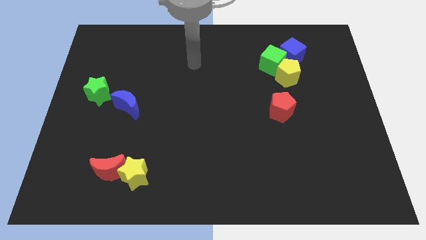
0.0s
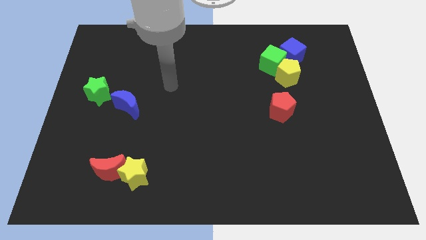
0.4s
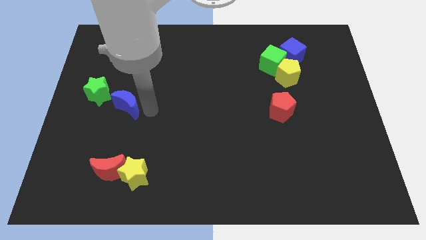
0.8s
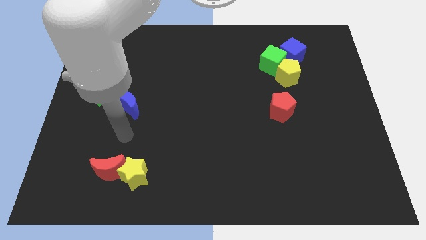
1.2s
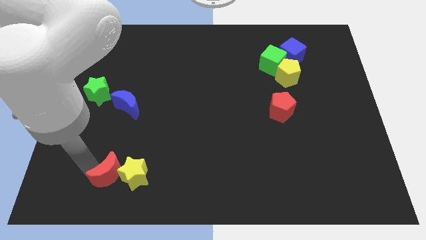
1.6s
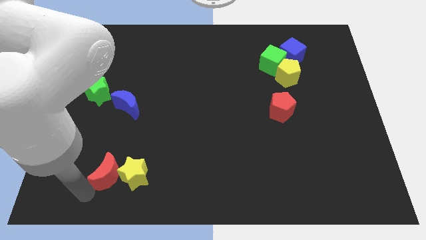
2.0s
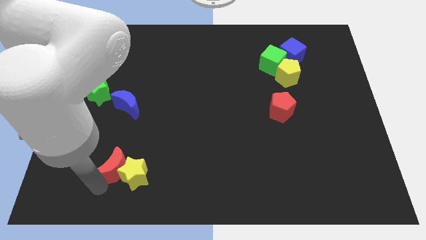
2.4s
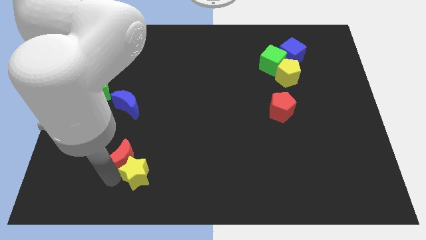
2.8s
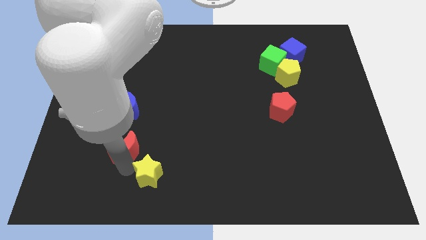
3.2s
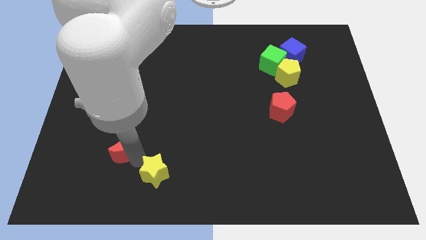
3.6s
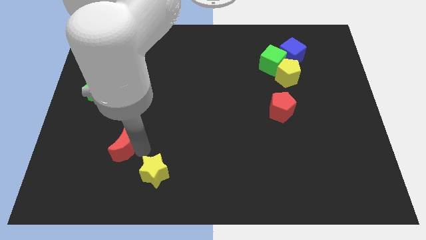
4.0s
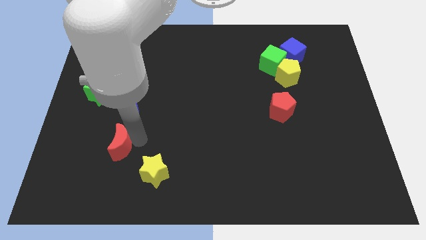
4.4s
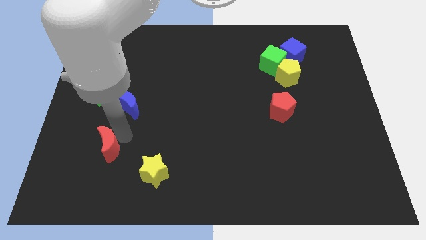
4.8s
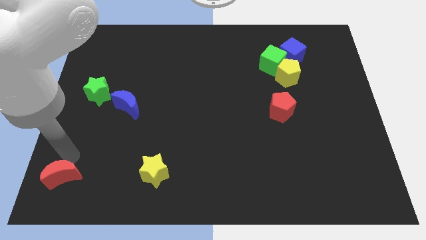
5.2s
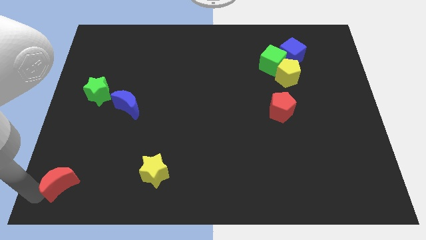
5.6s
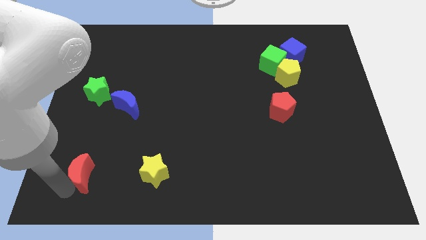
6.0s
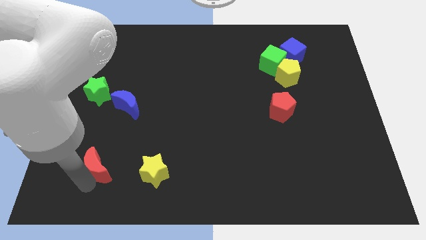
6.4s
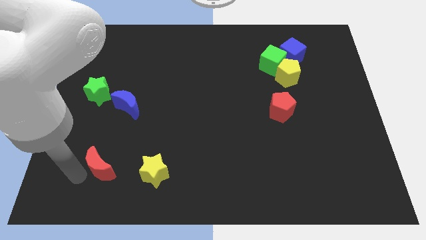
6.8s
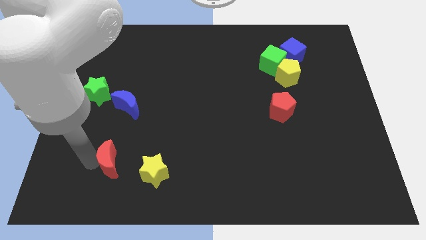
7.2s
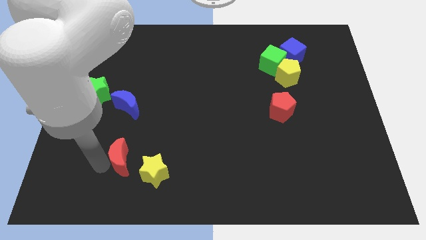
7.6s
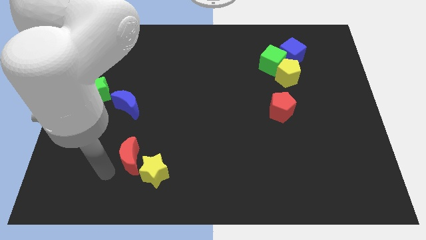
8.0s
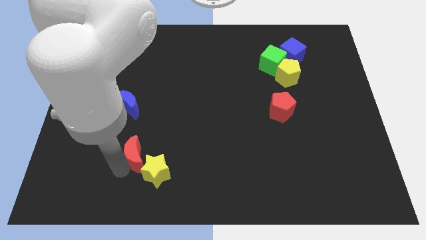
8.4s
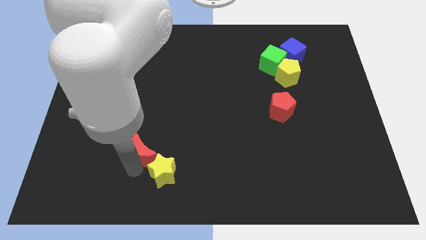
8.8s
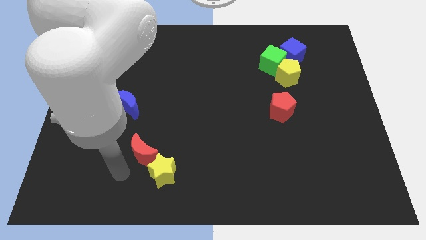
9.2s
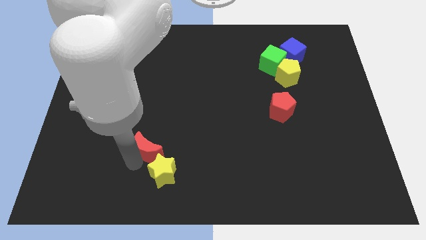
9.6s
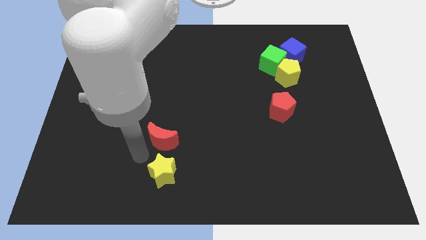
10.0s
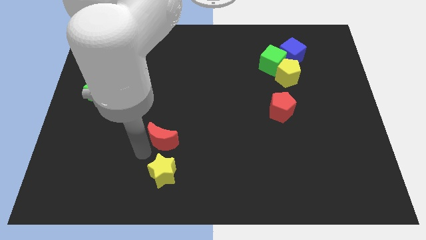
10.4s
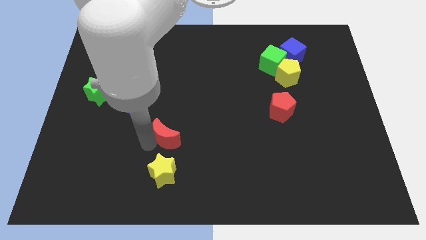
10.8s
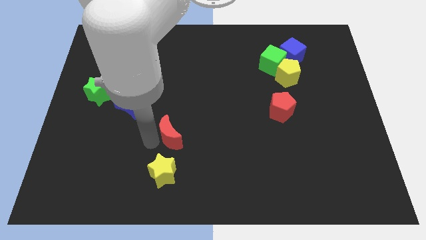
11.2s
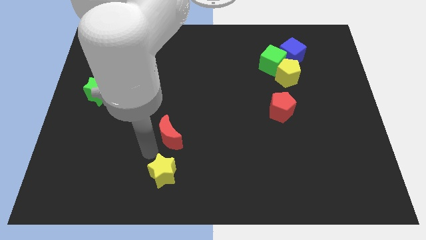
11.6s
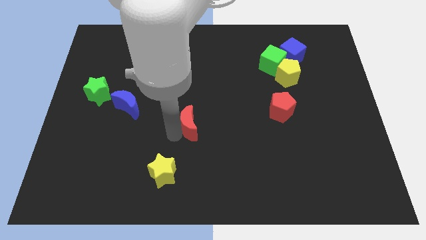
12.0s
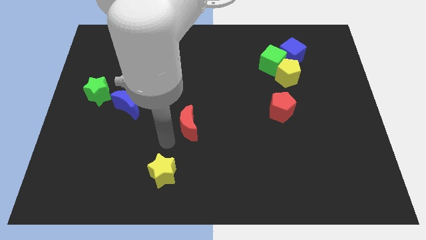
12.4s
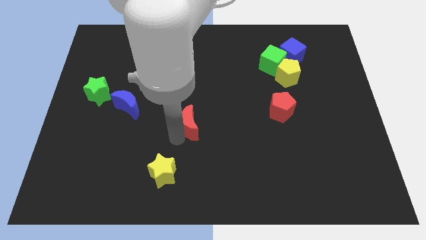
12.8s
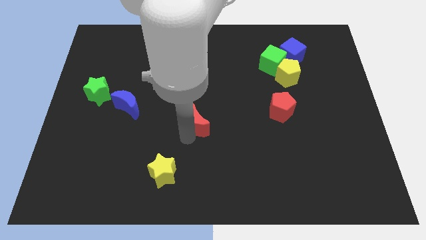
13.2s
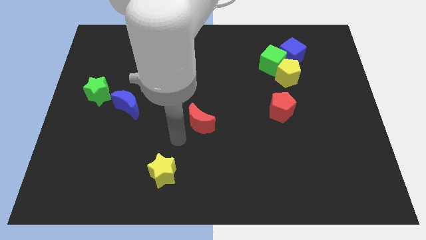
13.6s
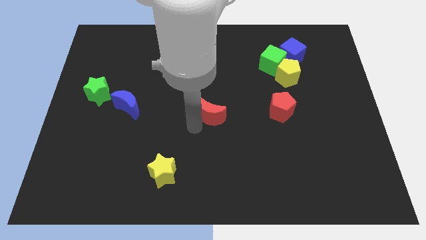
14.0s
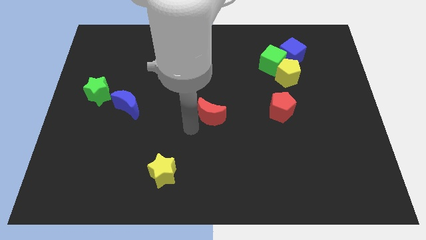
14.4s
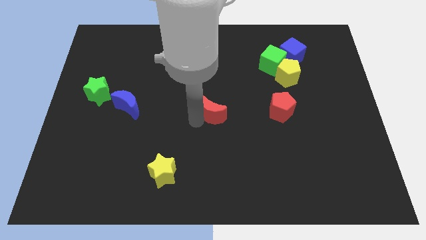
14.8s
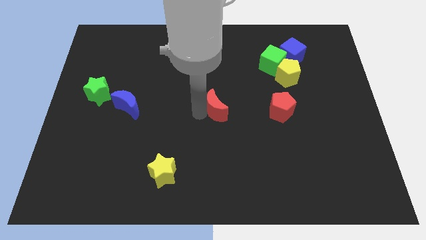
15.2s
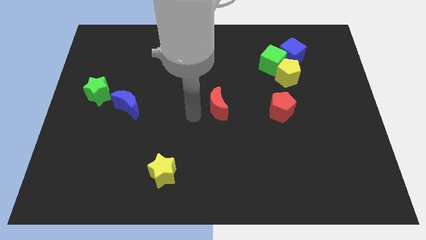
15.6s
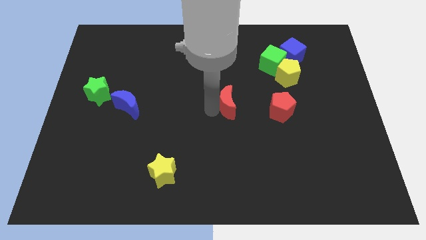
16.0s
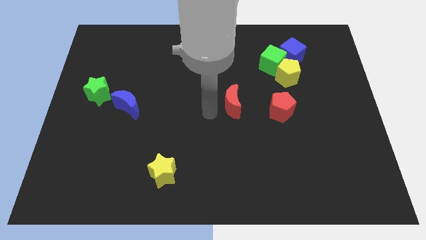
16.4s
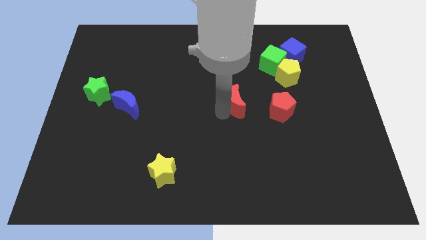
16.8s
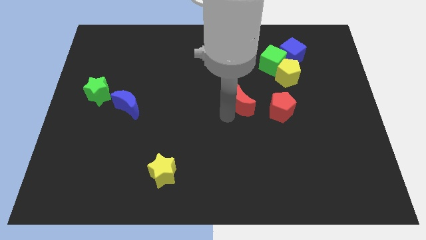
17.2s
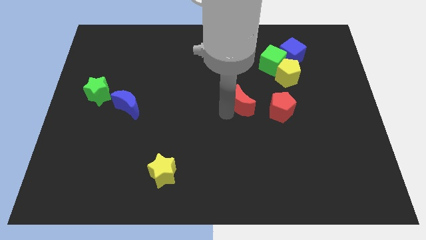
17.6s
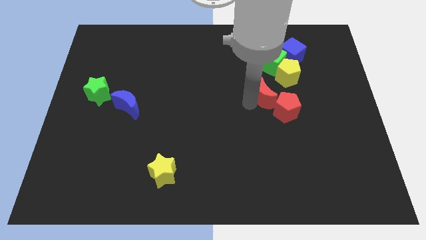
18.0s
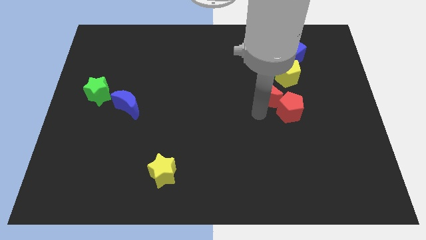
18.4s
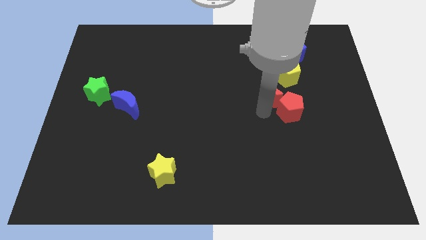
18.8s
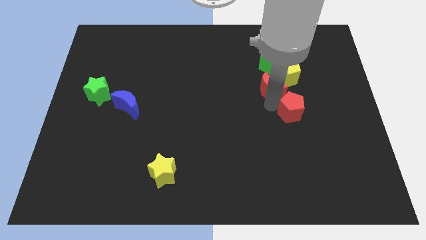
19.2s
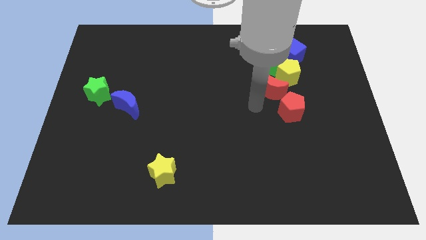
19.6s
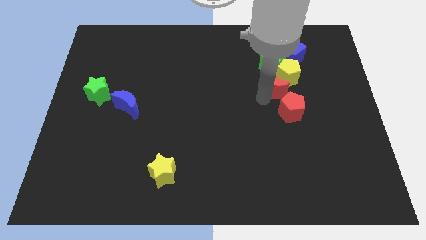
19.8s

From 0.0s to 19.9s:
slide the red moon next to the yellow pentagon

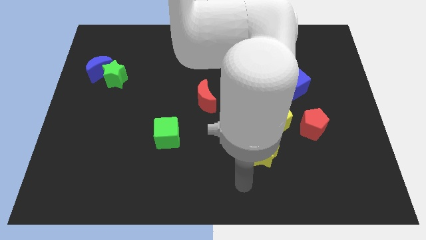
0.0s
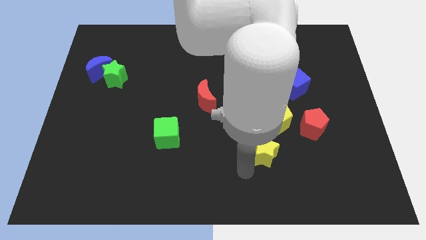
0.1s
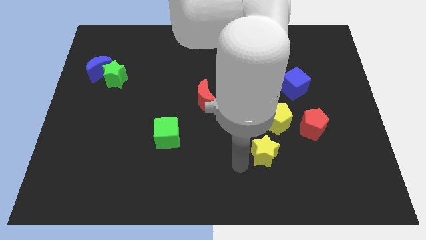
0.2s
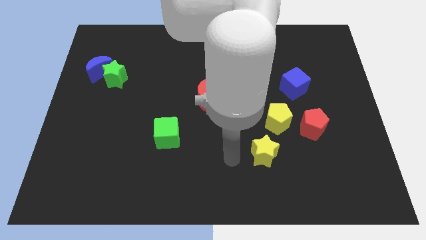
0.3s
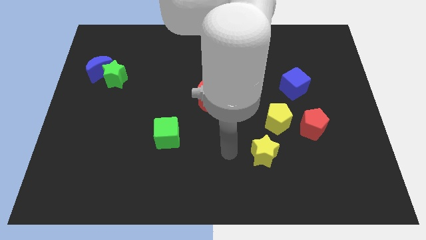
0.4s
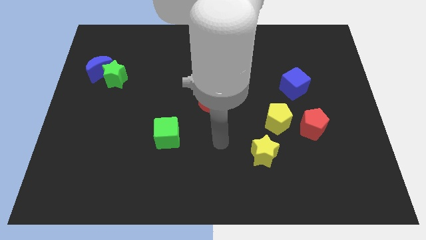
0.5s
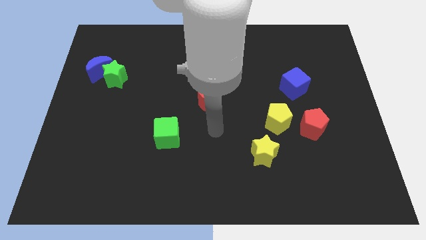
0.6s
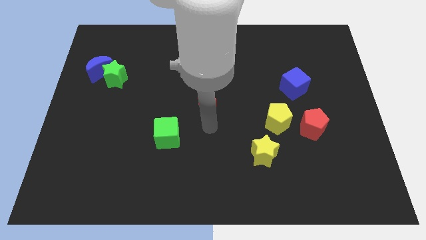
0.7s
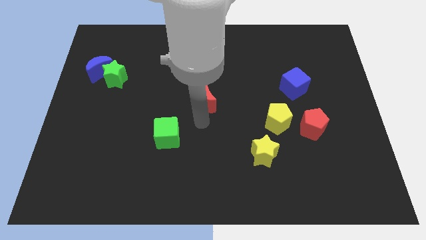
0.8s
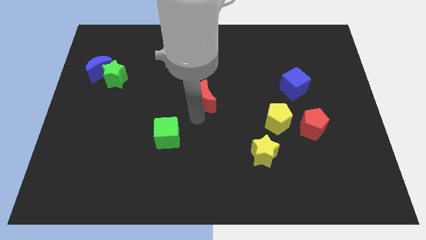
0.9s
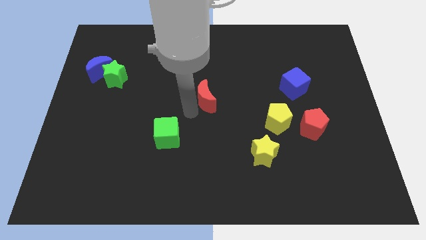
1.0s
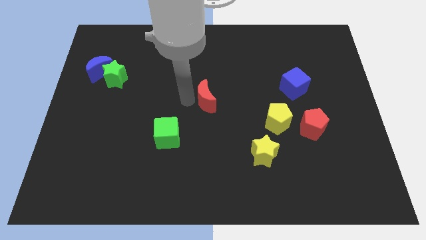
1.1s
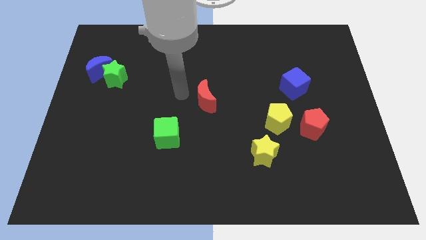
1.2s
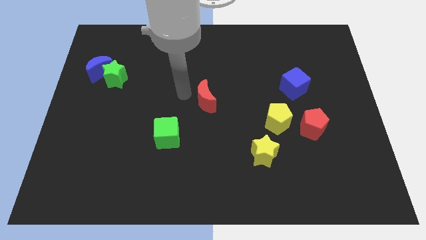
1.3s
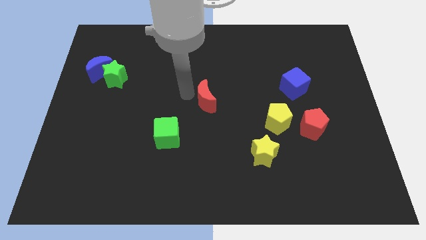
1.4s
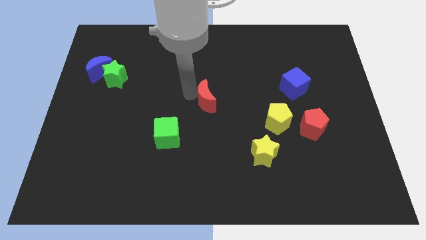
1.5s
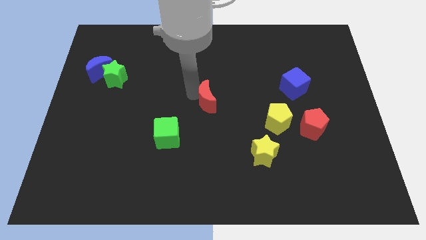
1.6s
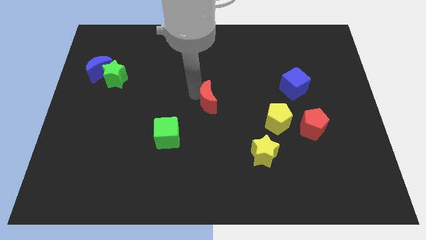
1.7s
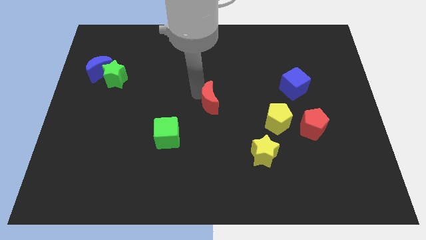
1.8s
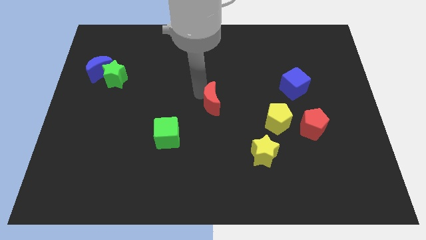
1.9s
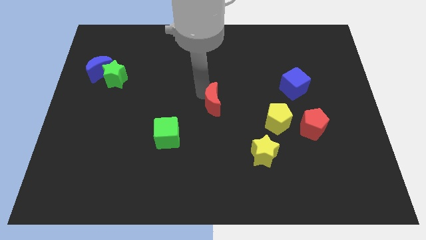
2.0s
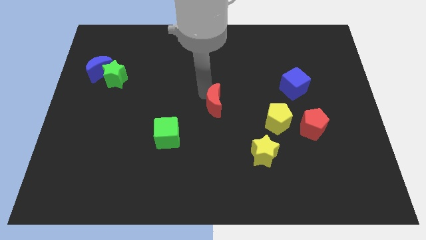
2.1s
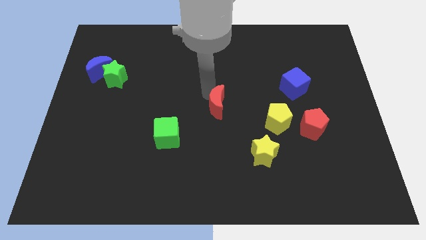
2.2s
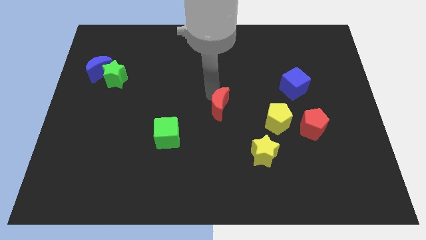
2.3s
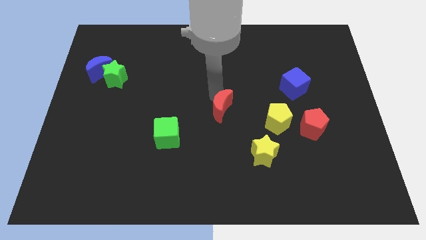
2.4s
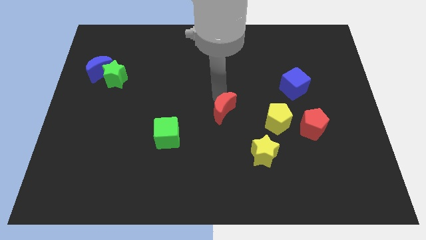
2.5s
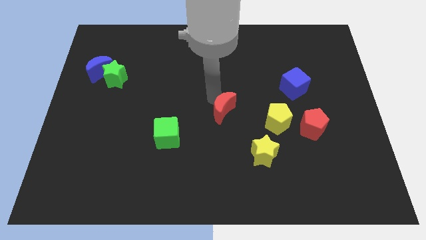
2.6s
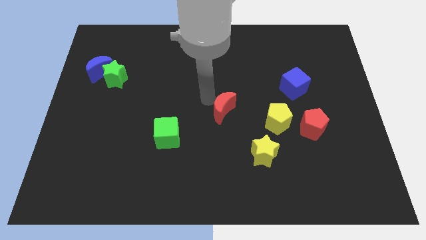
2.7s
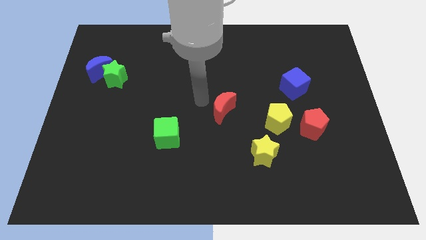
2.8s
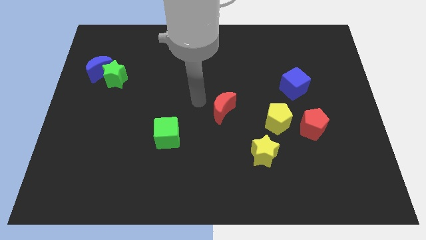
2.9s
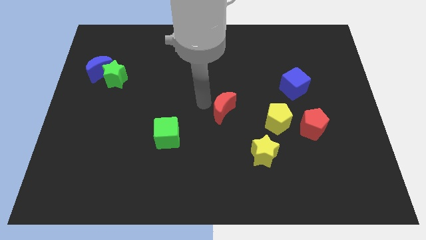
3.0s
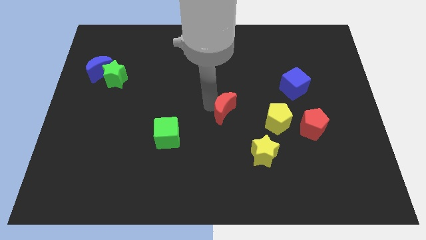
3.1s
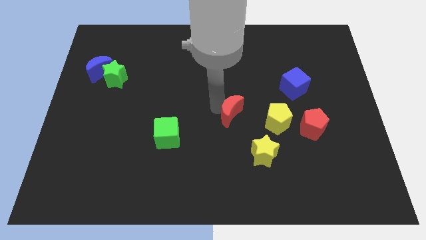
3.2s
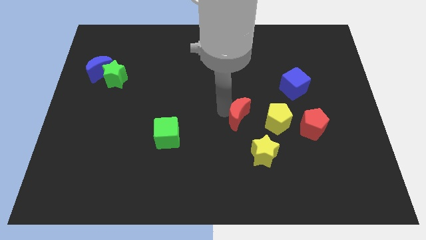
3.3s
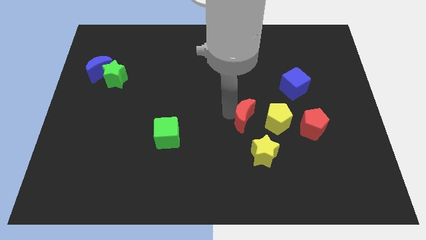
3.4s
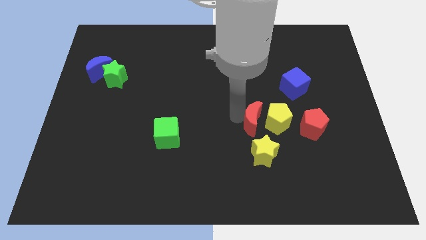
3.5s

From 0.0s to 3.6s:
push the red moon close to the yellow pentagon
